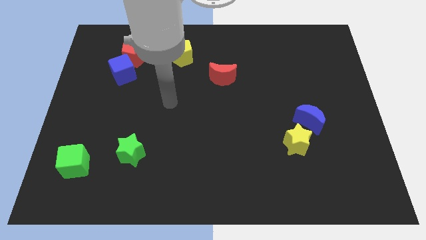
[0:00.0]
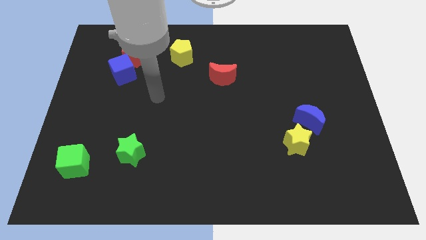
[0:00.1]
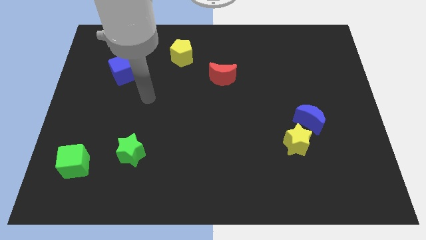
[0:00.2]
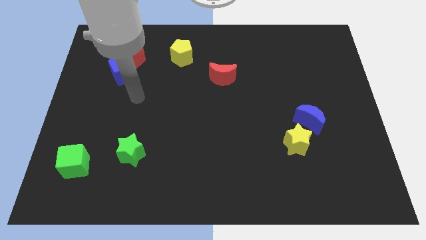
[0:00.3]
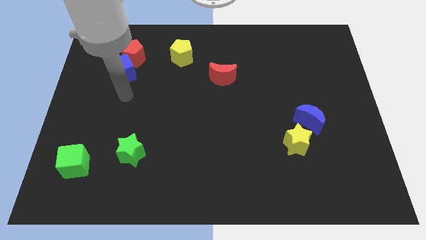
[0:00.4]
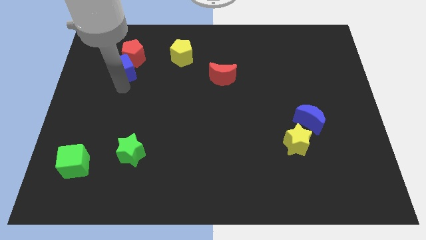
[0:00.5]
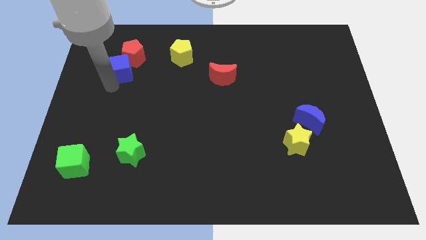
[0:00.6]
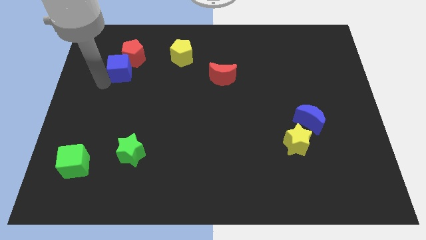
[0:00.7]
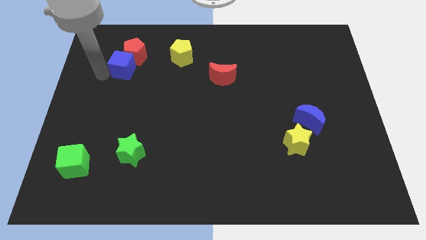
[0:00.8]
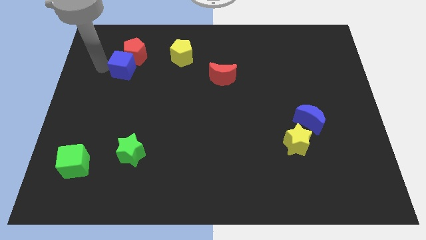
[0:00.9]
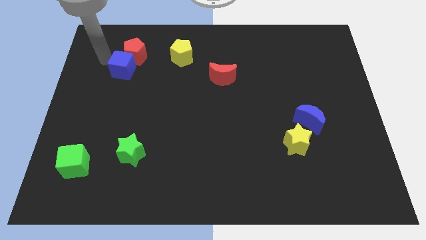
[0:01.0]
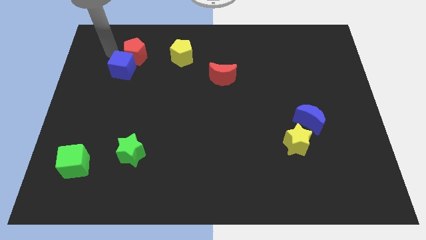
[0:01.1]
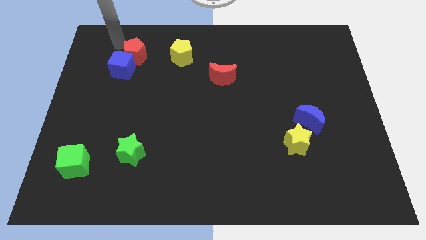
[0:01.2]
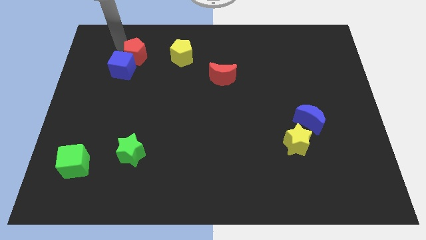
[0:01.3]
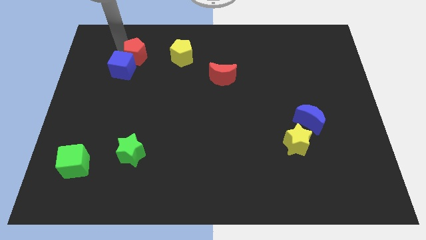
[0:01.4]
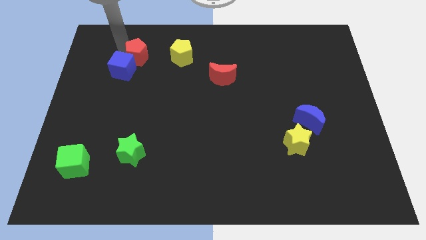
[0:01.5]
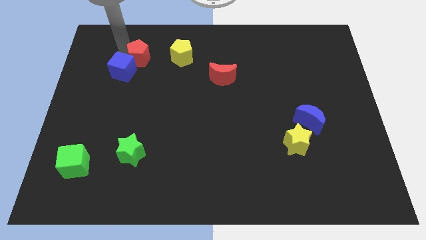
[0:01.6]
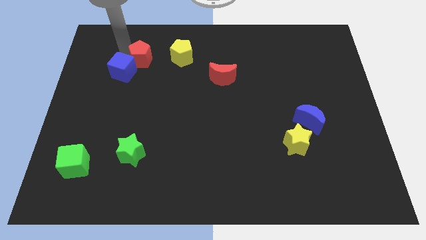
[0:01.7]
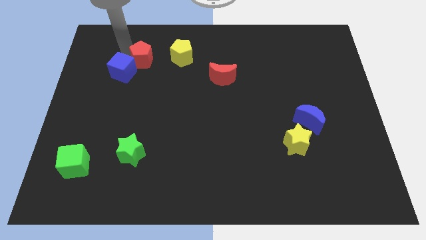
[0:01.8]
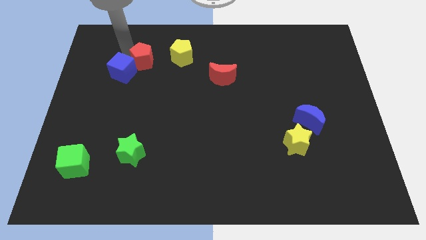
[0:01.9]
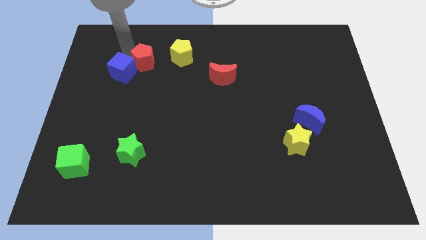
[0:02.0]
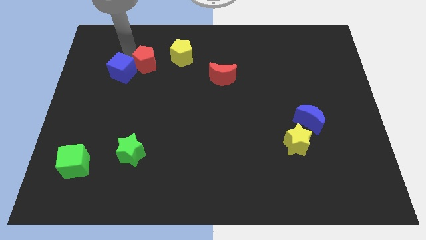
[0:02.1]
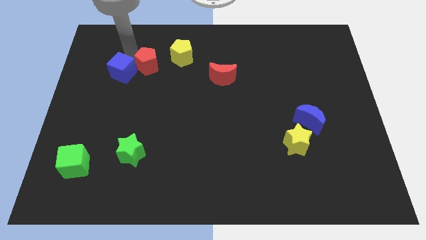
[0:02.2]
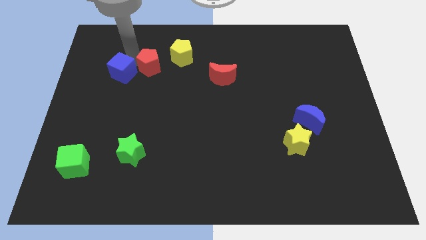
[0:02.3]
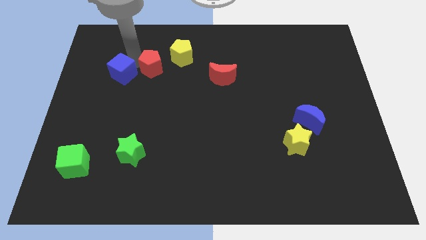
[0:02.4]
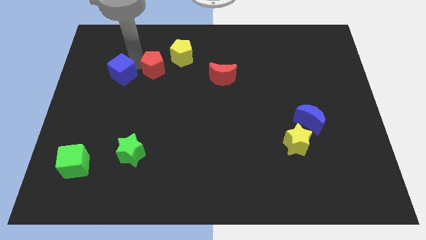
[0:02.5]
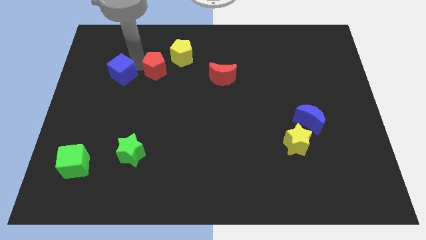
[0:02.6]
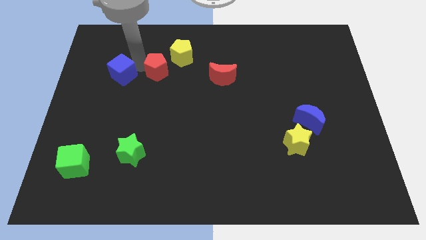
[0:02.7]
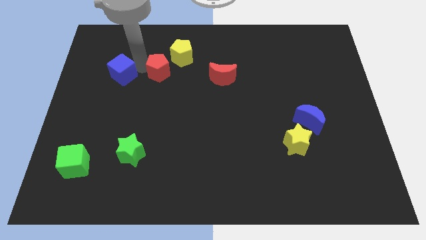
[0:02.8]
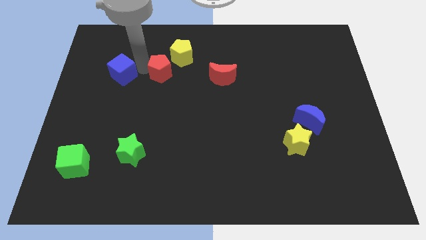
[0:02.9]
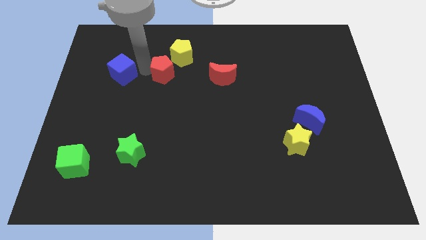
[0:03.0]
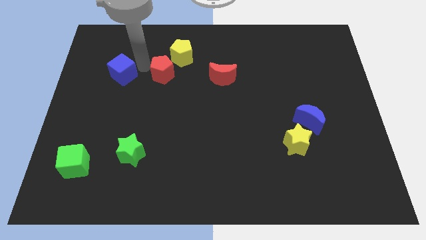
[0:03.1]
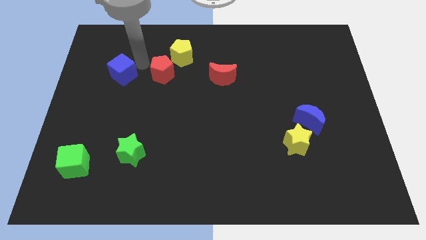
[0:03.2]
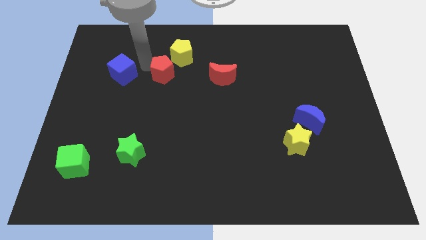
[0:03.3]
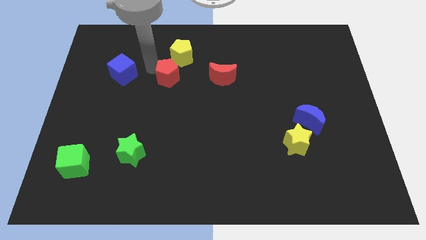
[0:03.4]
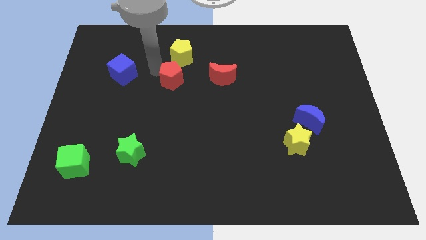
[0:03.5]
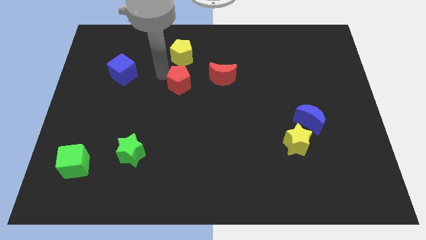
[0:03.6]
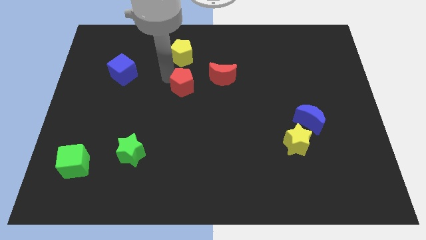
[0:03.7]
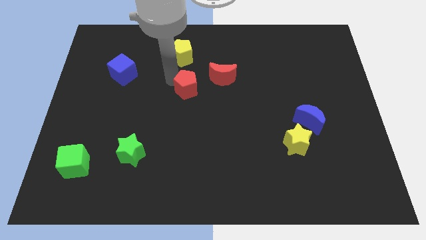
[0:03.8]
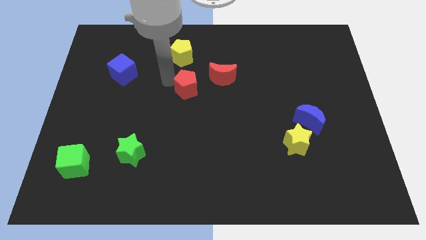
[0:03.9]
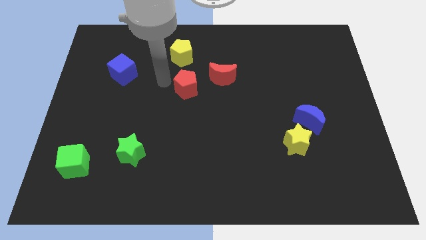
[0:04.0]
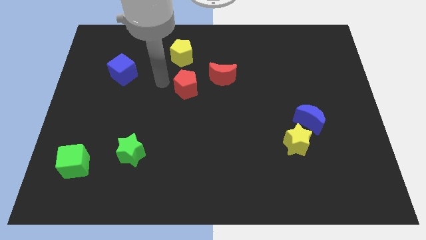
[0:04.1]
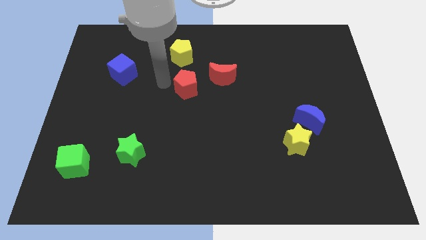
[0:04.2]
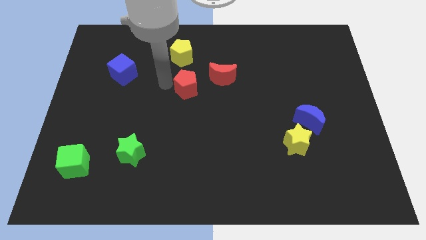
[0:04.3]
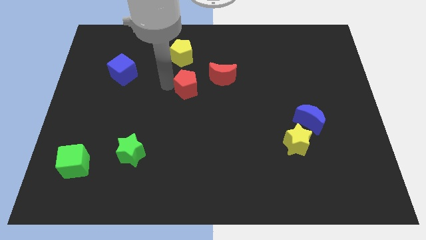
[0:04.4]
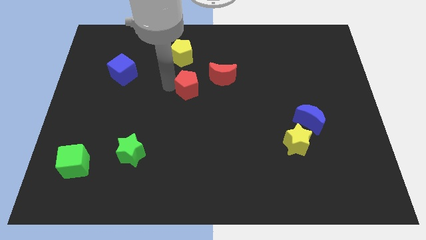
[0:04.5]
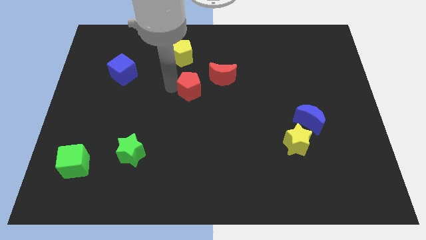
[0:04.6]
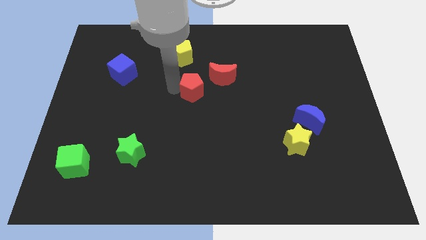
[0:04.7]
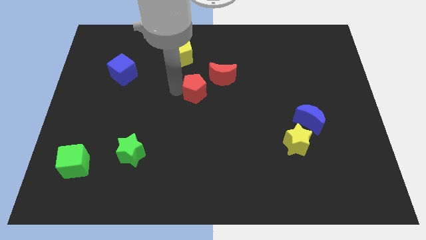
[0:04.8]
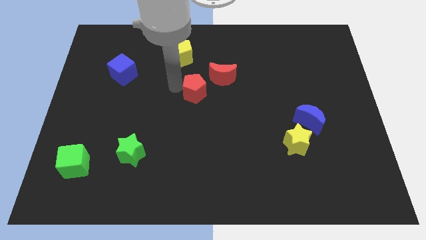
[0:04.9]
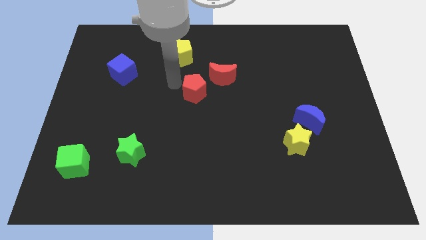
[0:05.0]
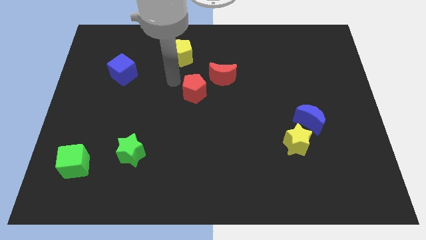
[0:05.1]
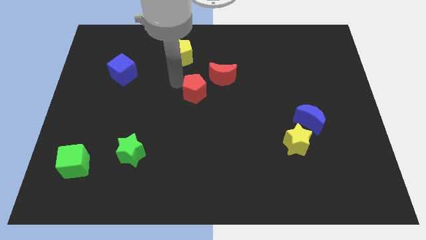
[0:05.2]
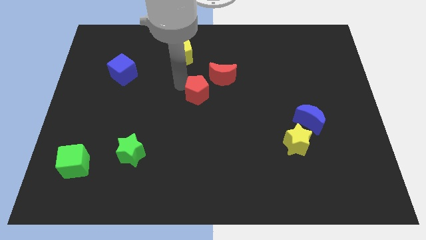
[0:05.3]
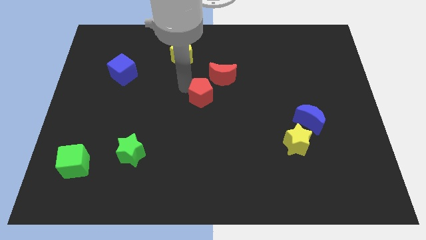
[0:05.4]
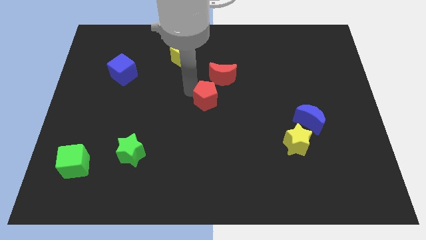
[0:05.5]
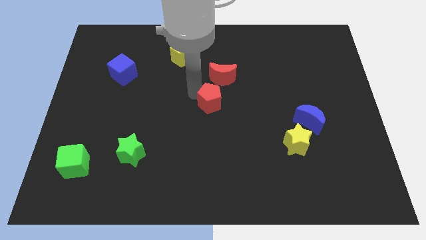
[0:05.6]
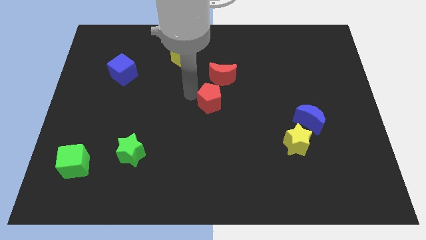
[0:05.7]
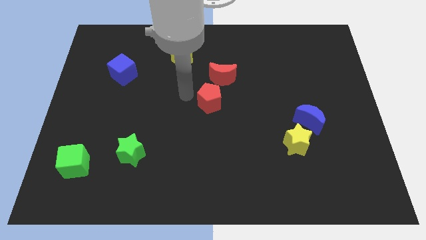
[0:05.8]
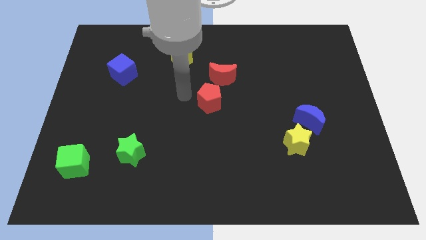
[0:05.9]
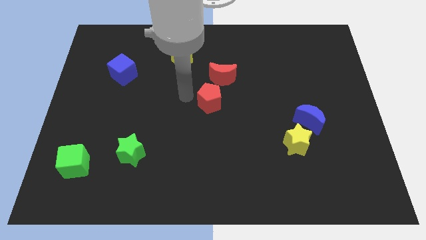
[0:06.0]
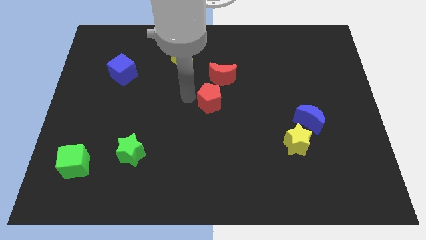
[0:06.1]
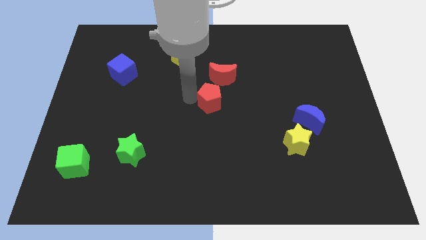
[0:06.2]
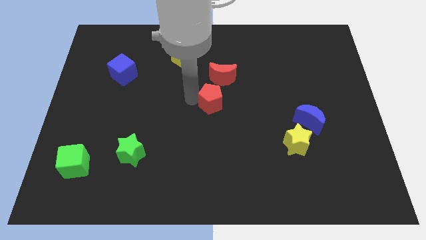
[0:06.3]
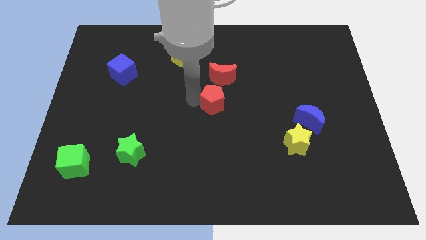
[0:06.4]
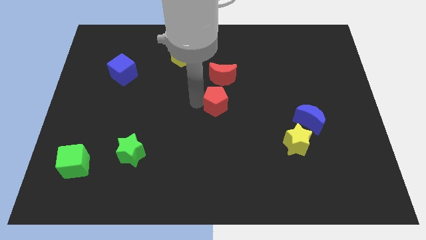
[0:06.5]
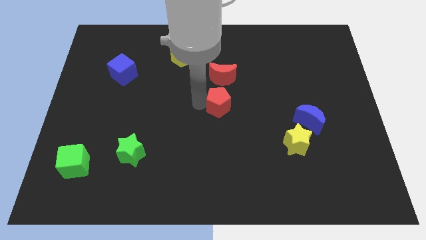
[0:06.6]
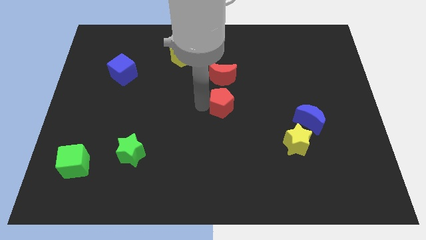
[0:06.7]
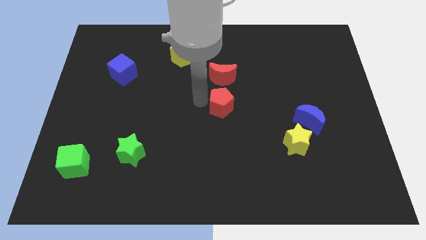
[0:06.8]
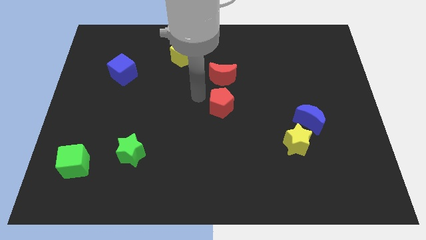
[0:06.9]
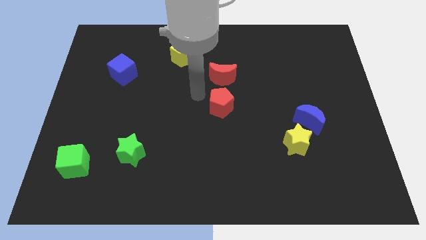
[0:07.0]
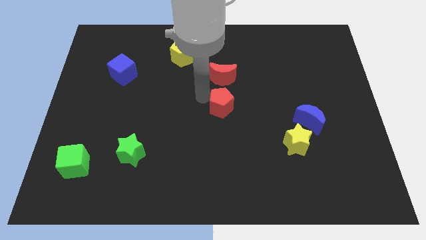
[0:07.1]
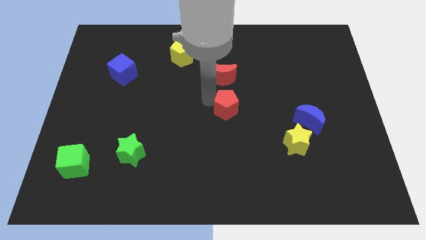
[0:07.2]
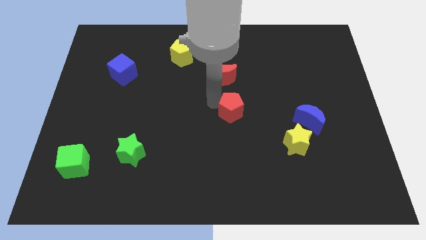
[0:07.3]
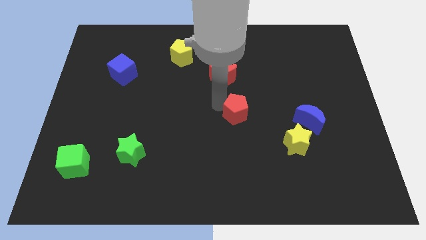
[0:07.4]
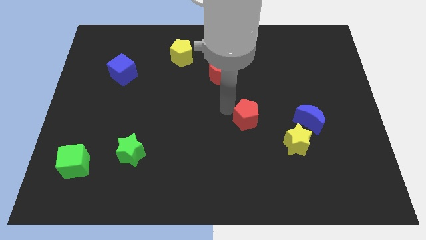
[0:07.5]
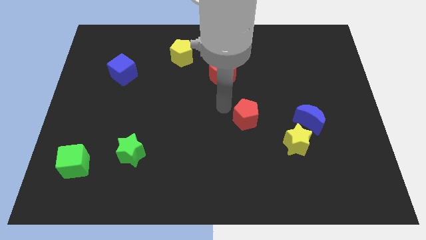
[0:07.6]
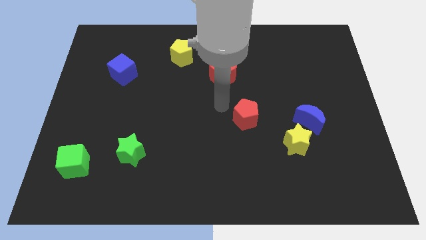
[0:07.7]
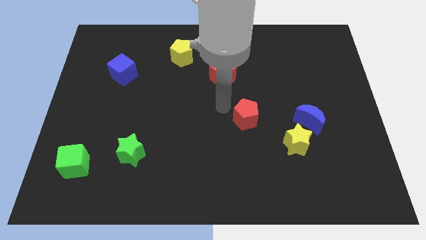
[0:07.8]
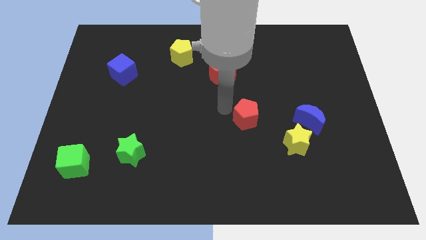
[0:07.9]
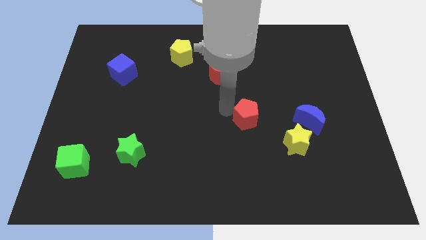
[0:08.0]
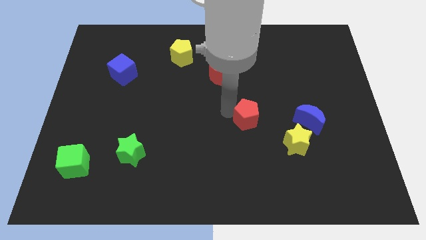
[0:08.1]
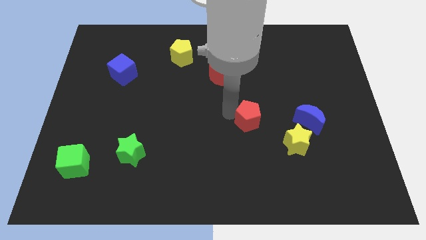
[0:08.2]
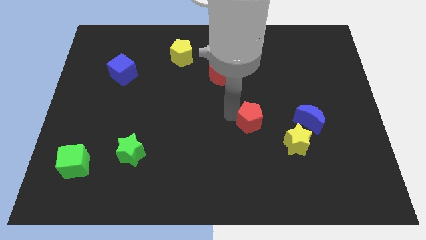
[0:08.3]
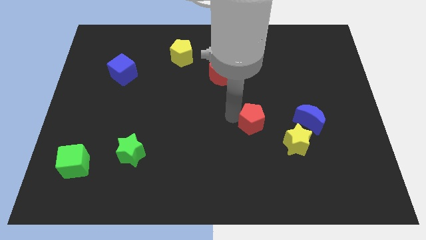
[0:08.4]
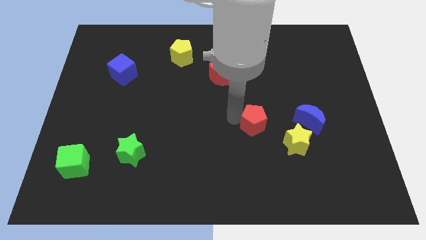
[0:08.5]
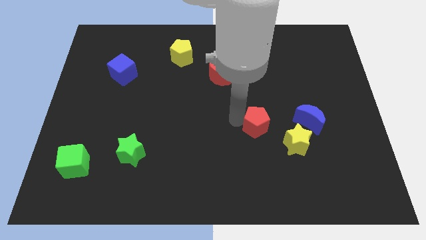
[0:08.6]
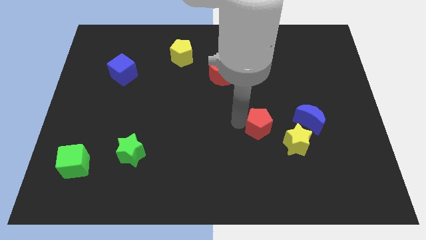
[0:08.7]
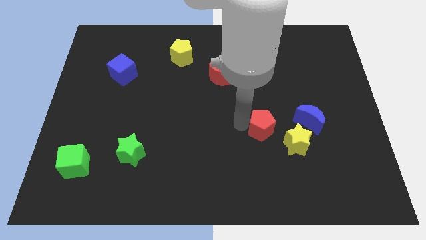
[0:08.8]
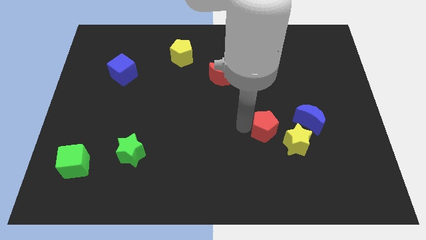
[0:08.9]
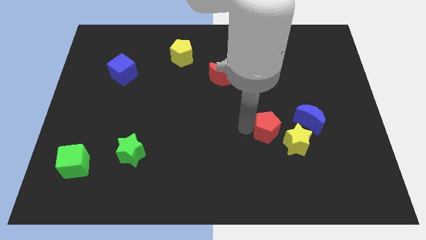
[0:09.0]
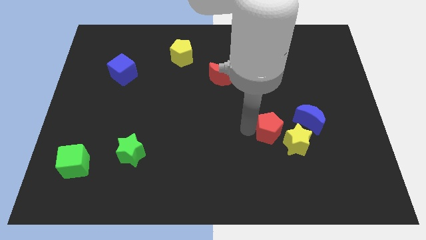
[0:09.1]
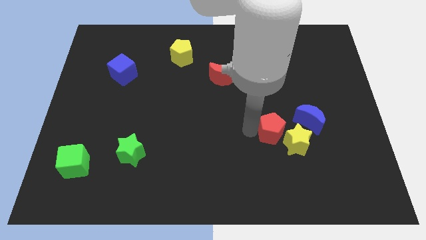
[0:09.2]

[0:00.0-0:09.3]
move the red pentagon to the yellow star
